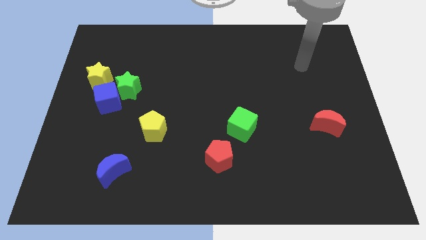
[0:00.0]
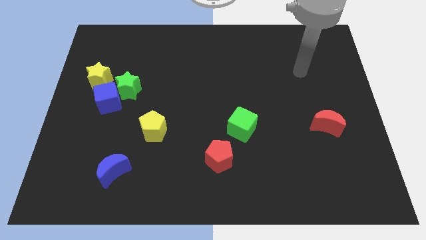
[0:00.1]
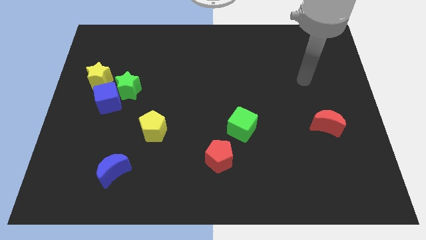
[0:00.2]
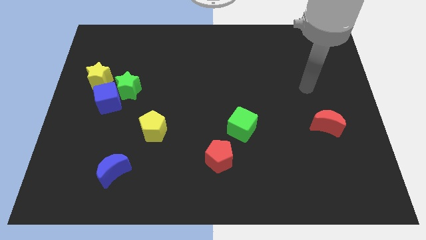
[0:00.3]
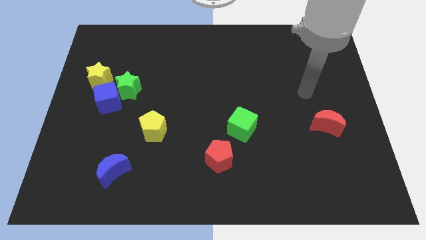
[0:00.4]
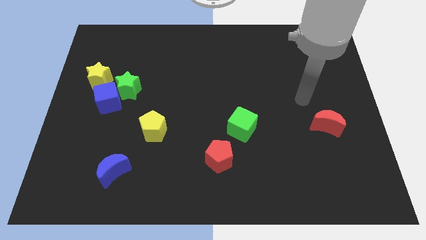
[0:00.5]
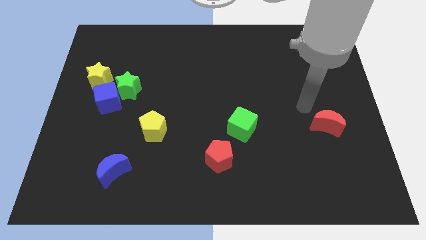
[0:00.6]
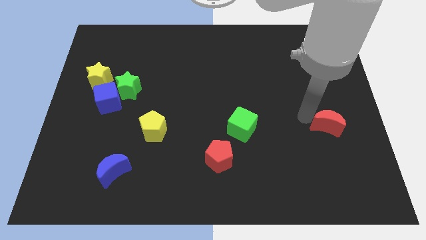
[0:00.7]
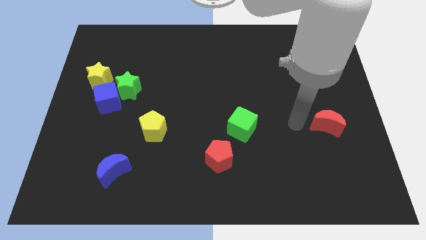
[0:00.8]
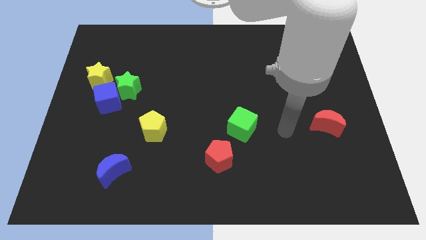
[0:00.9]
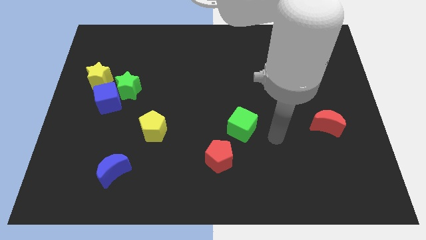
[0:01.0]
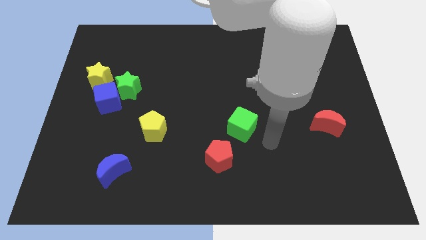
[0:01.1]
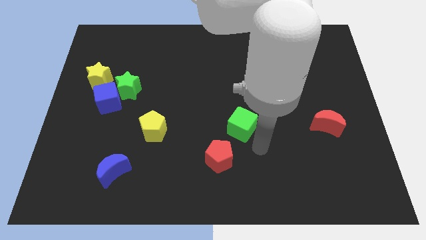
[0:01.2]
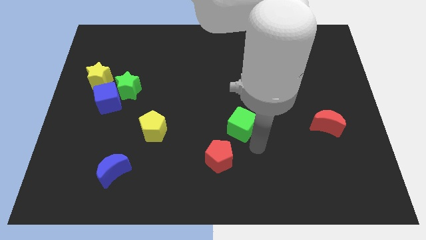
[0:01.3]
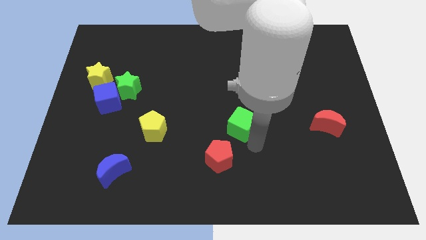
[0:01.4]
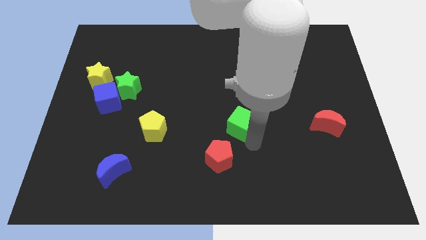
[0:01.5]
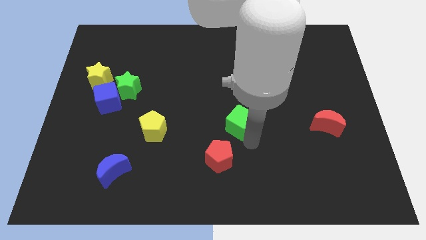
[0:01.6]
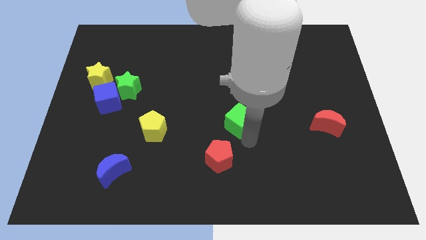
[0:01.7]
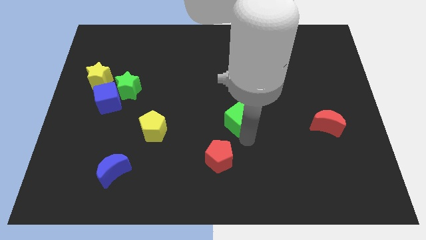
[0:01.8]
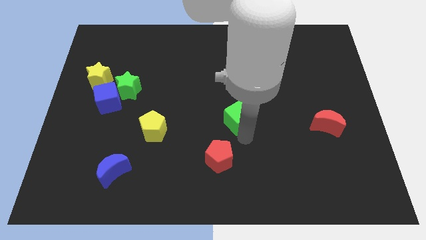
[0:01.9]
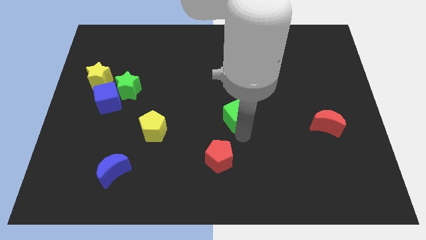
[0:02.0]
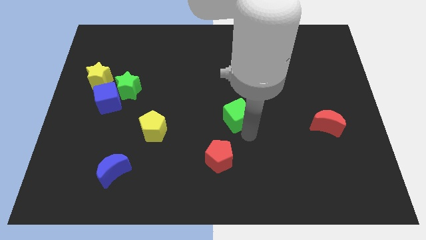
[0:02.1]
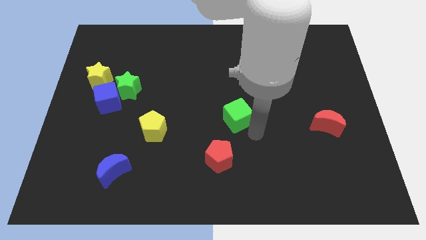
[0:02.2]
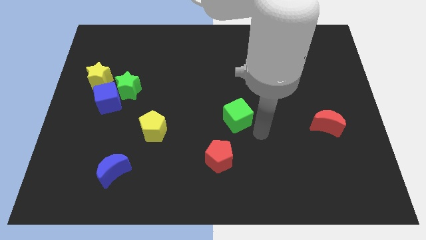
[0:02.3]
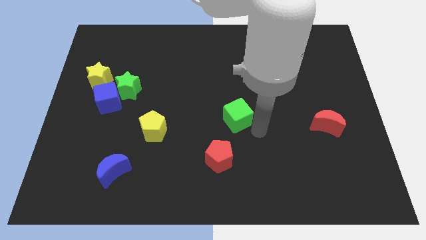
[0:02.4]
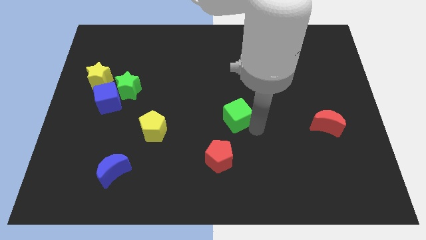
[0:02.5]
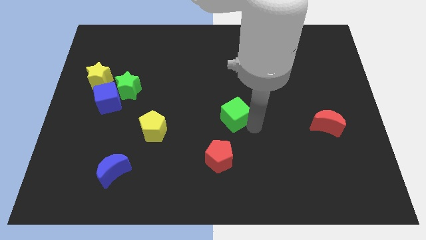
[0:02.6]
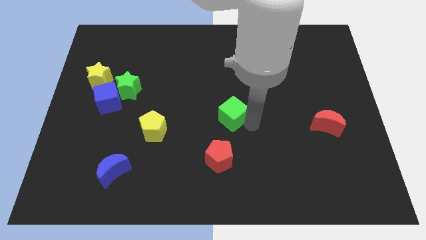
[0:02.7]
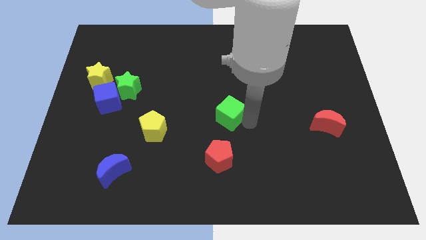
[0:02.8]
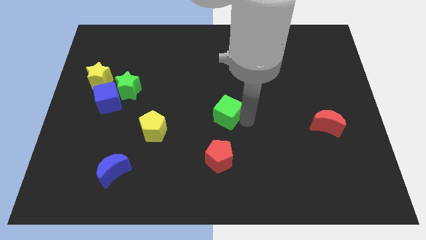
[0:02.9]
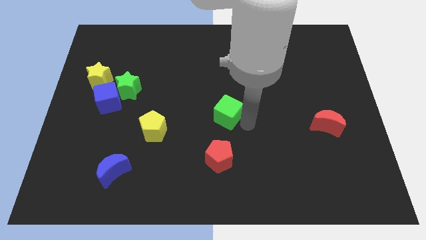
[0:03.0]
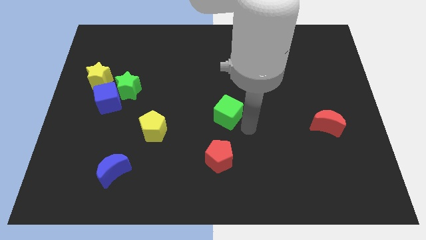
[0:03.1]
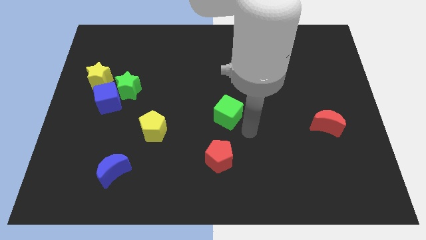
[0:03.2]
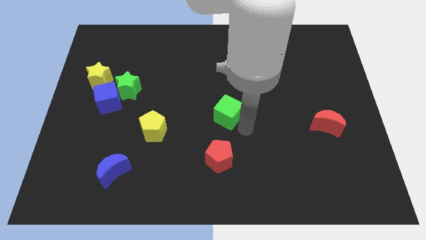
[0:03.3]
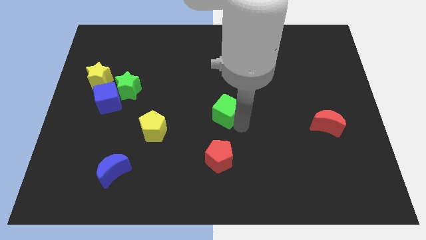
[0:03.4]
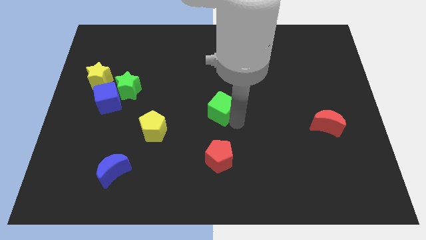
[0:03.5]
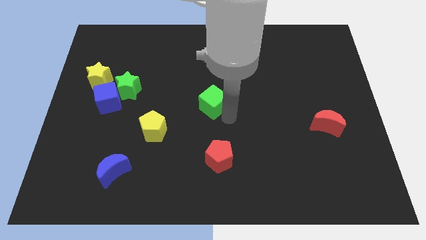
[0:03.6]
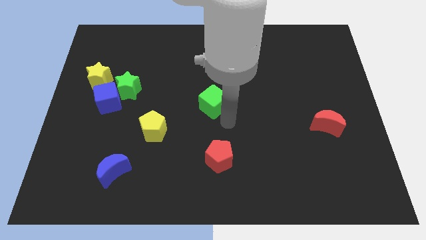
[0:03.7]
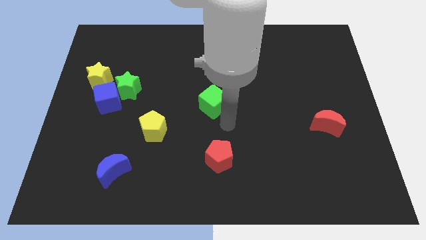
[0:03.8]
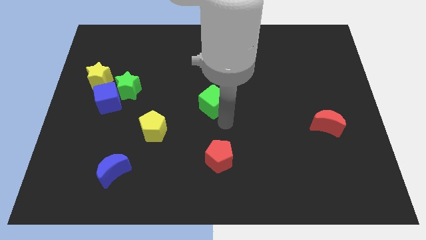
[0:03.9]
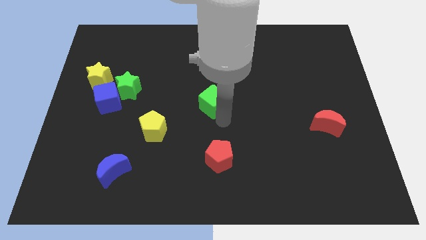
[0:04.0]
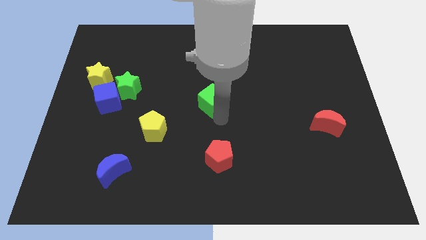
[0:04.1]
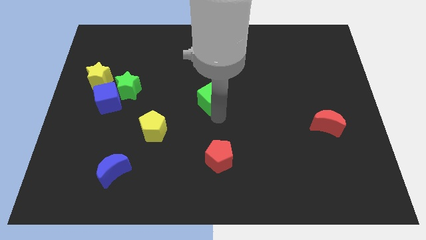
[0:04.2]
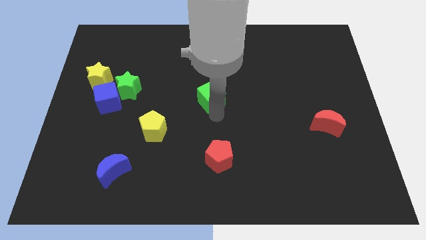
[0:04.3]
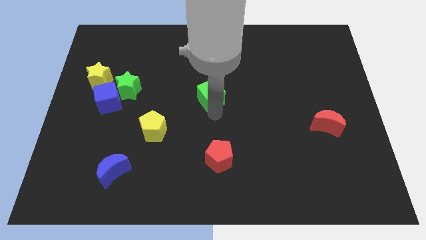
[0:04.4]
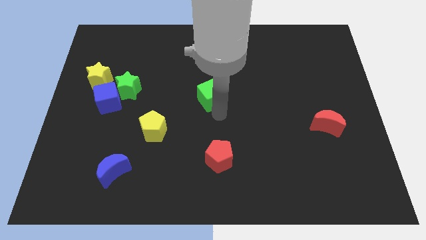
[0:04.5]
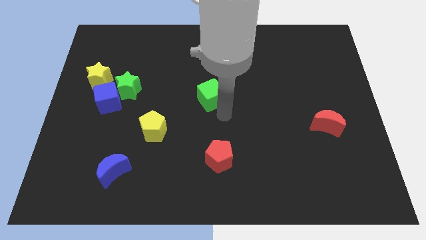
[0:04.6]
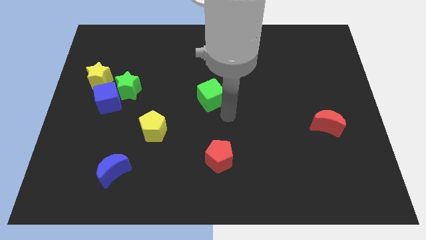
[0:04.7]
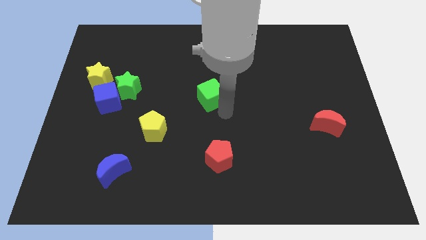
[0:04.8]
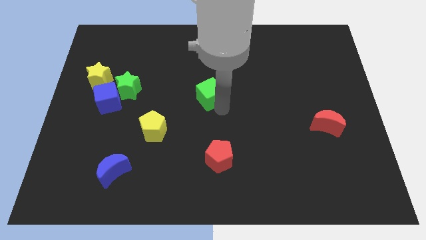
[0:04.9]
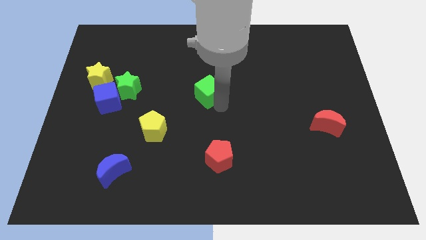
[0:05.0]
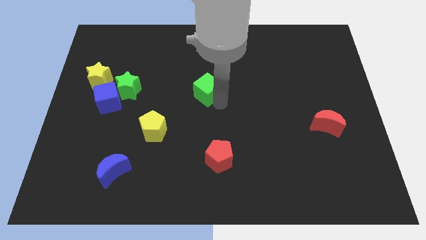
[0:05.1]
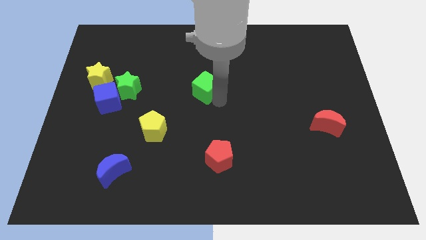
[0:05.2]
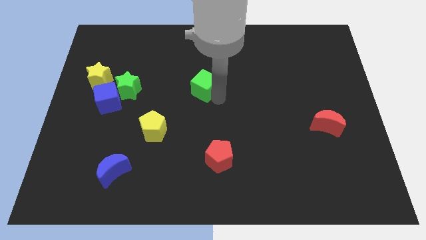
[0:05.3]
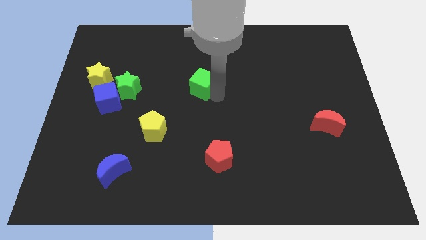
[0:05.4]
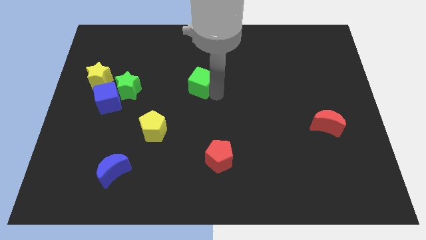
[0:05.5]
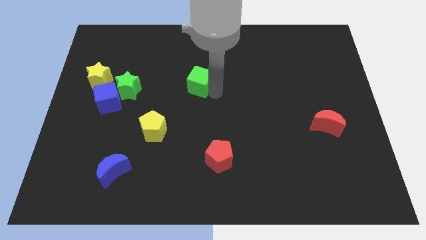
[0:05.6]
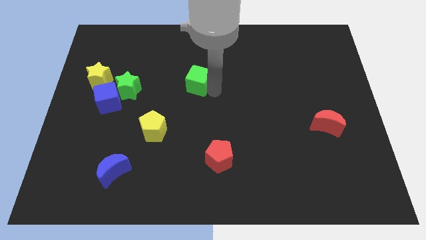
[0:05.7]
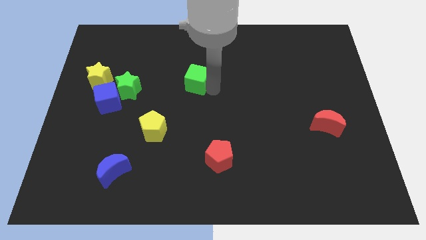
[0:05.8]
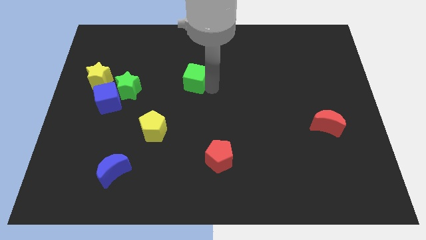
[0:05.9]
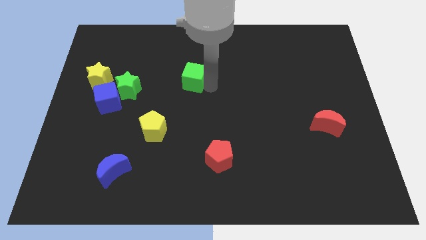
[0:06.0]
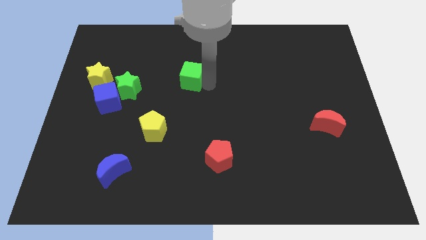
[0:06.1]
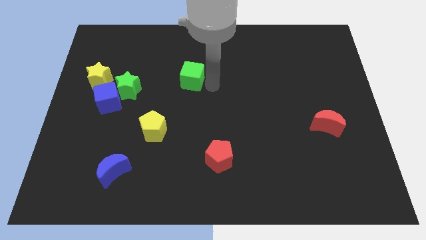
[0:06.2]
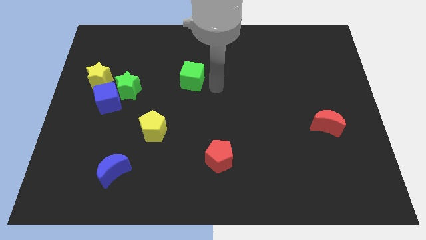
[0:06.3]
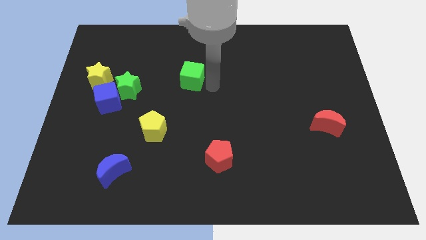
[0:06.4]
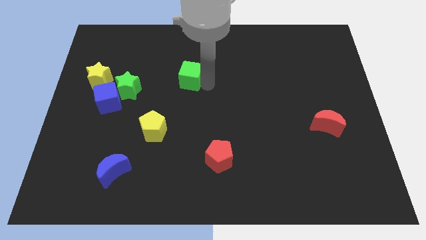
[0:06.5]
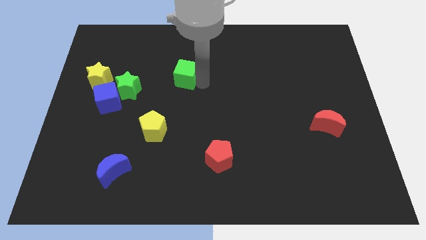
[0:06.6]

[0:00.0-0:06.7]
slide the green cube upwards and left diagonally

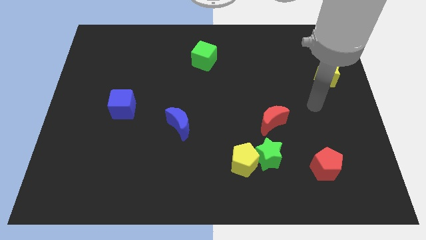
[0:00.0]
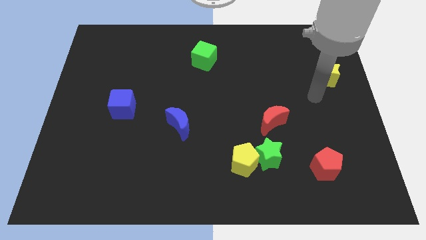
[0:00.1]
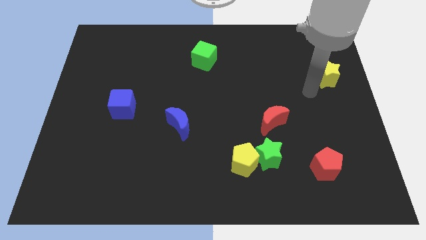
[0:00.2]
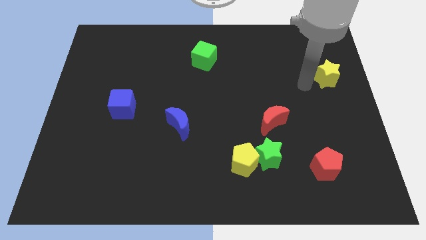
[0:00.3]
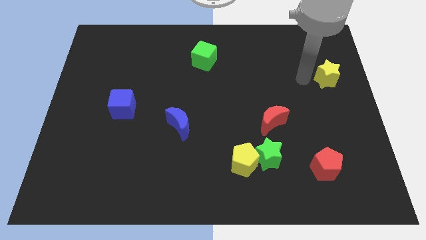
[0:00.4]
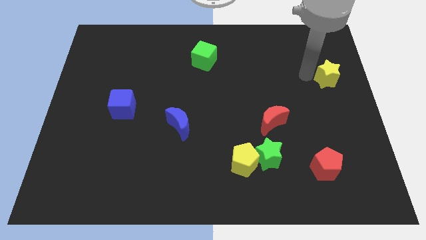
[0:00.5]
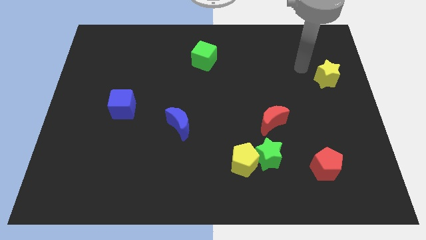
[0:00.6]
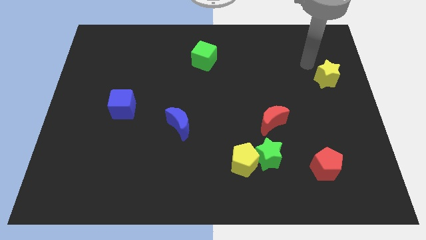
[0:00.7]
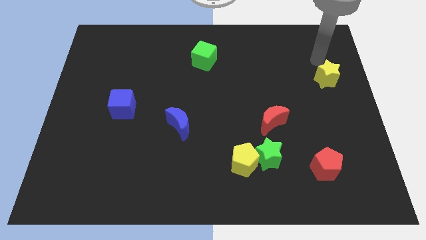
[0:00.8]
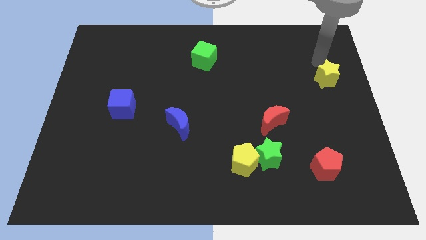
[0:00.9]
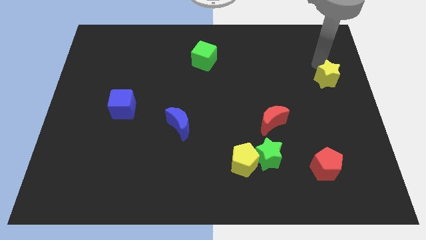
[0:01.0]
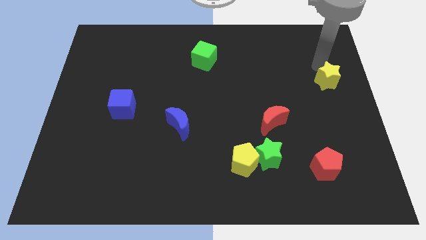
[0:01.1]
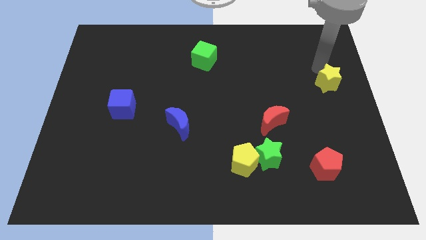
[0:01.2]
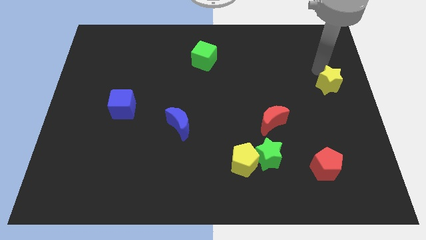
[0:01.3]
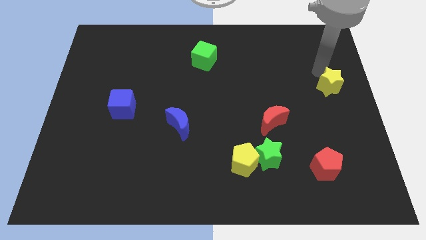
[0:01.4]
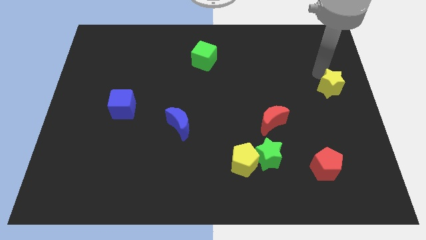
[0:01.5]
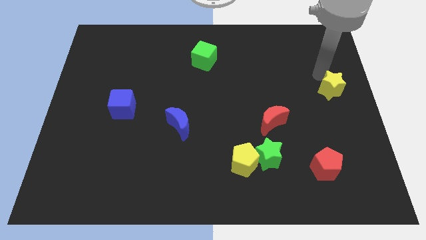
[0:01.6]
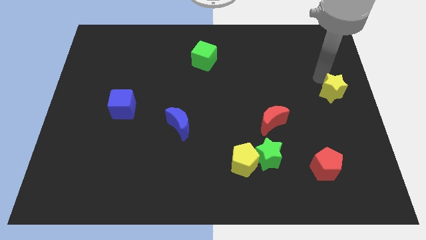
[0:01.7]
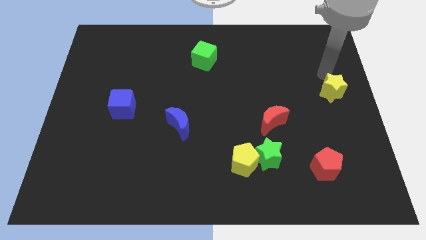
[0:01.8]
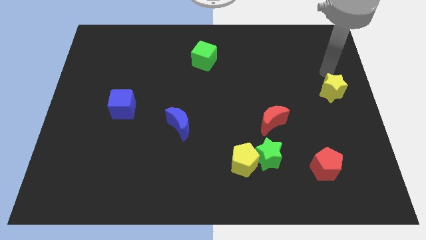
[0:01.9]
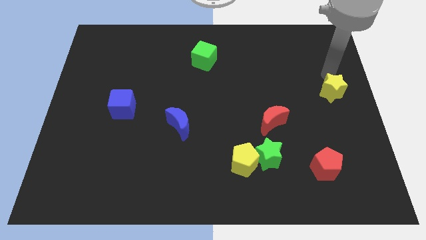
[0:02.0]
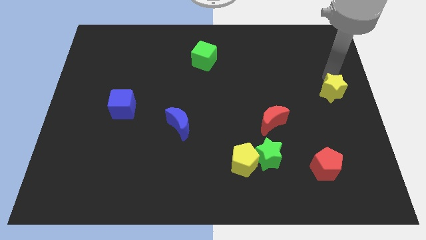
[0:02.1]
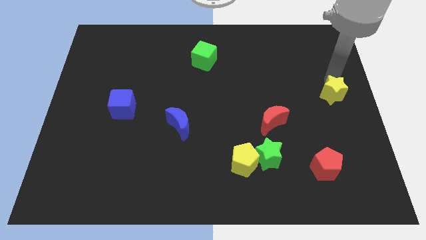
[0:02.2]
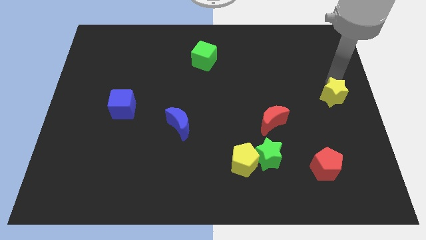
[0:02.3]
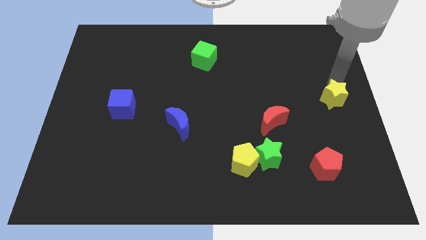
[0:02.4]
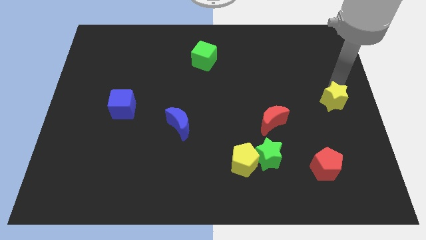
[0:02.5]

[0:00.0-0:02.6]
move the yellow star downwards a little
